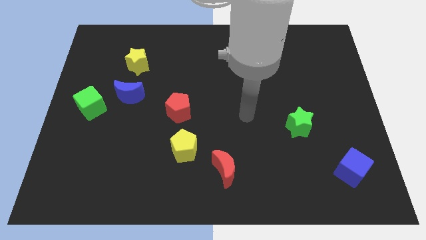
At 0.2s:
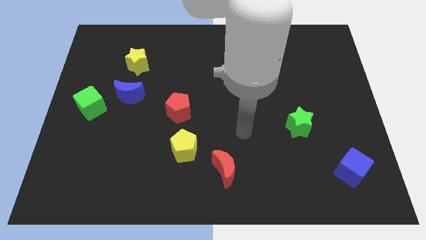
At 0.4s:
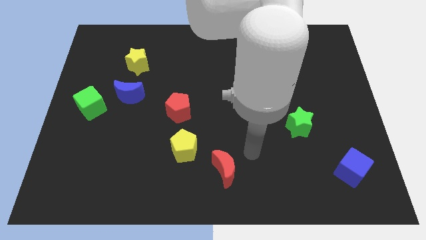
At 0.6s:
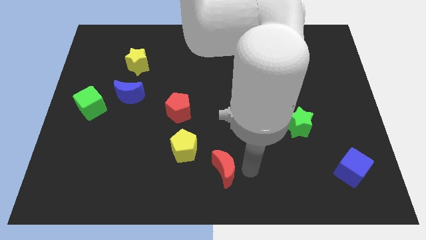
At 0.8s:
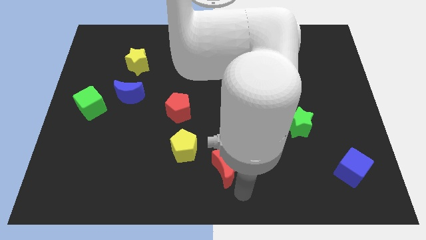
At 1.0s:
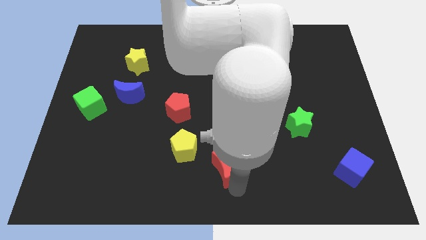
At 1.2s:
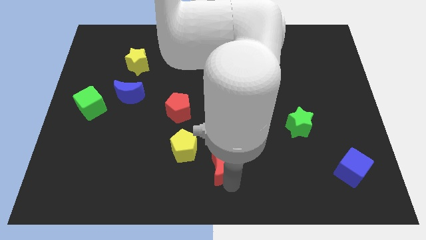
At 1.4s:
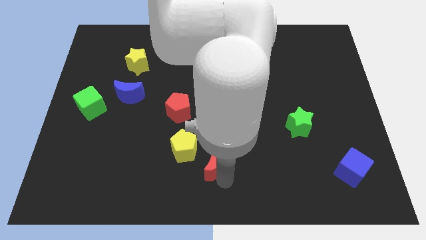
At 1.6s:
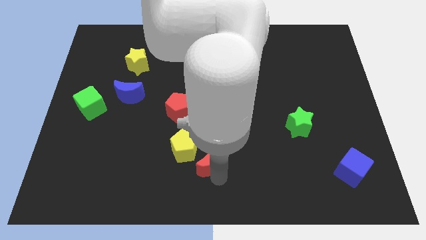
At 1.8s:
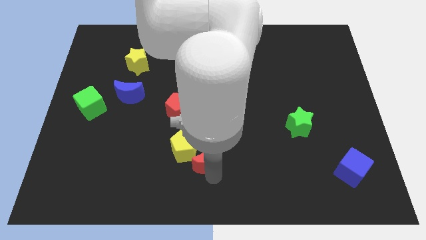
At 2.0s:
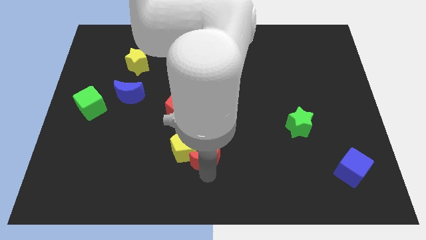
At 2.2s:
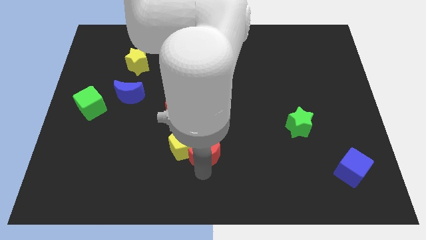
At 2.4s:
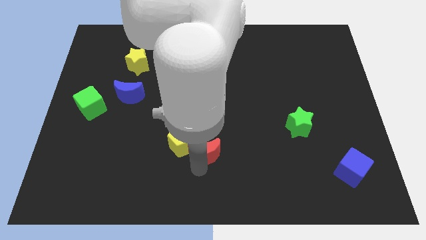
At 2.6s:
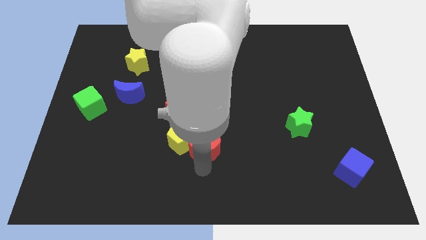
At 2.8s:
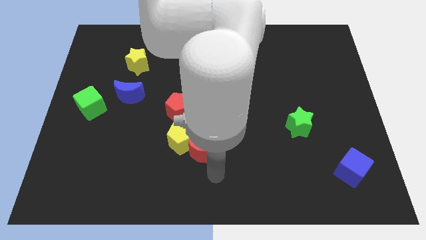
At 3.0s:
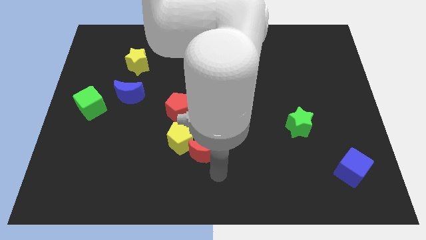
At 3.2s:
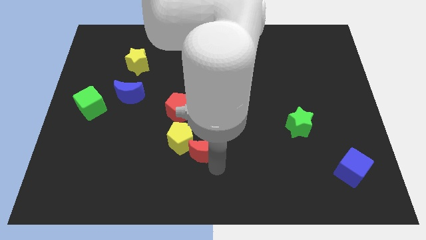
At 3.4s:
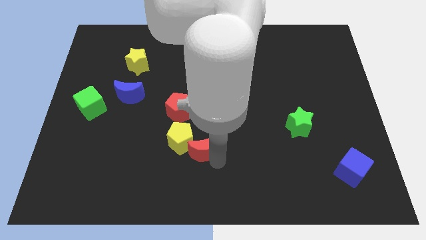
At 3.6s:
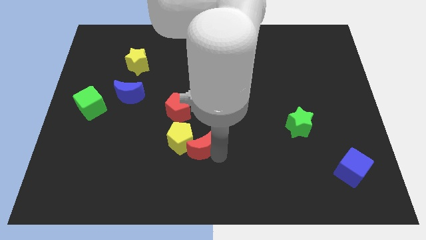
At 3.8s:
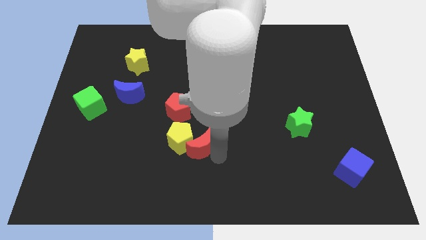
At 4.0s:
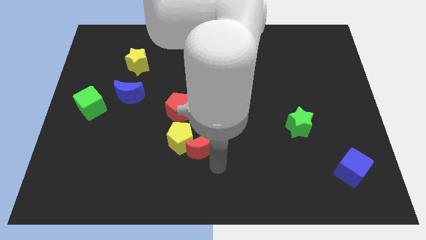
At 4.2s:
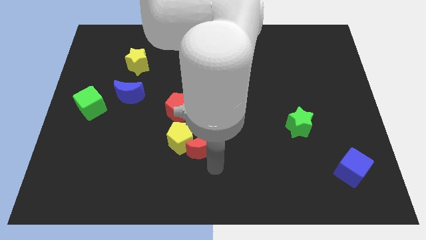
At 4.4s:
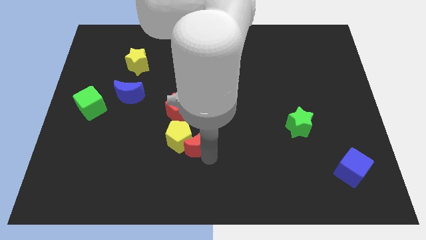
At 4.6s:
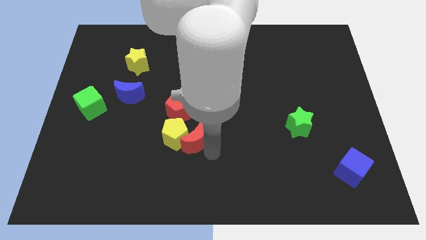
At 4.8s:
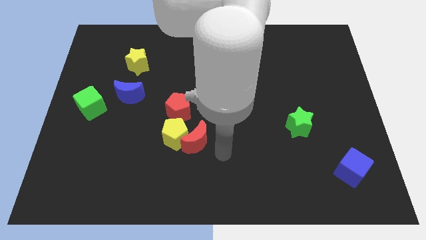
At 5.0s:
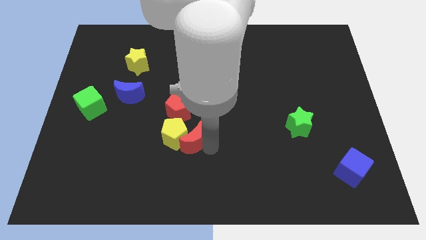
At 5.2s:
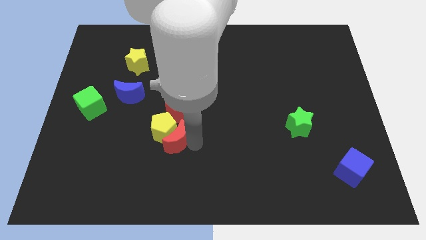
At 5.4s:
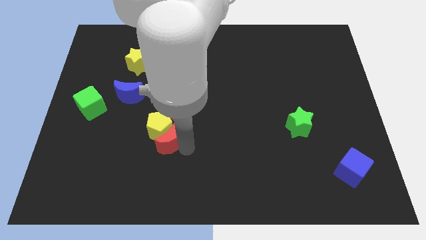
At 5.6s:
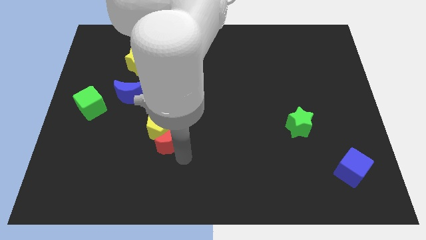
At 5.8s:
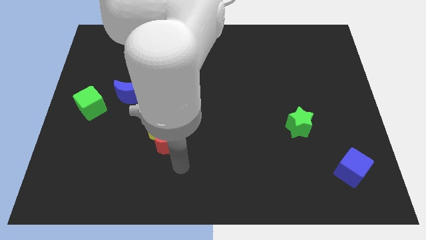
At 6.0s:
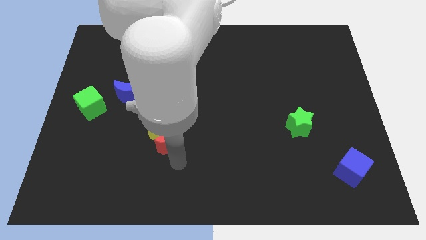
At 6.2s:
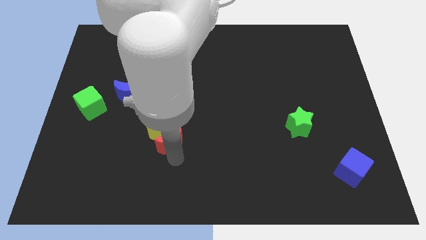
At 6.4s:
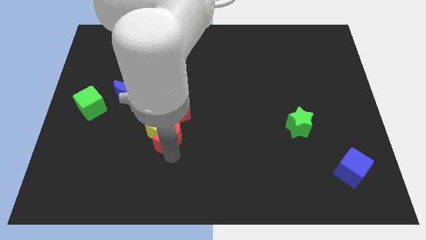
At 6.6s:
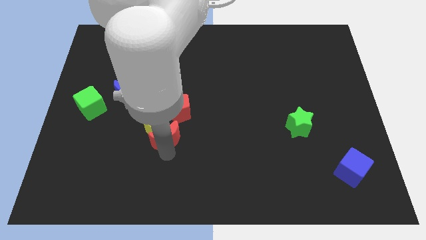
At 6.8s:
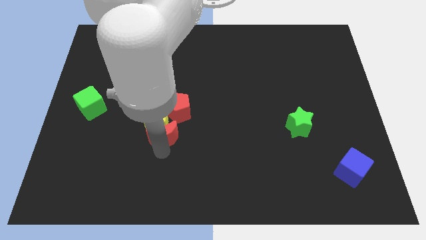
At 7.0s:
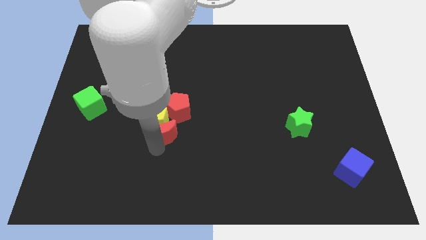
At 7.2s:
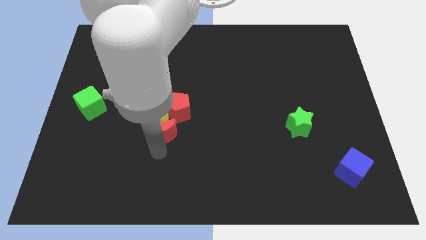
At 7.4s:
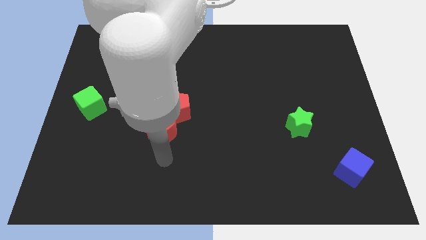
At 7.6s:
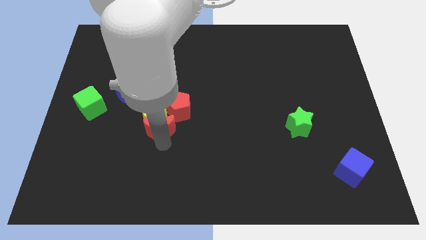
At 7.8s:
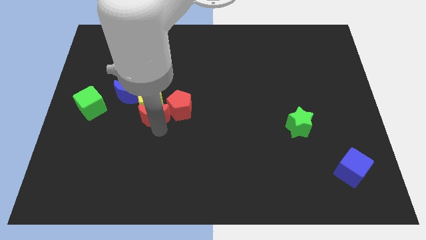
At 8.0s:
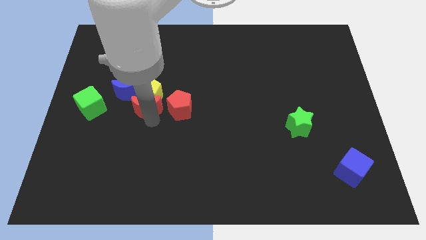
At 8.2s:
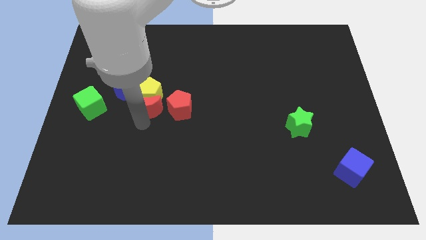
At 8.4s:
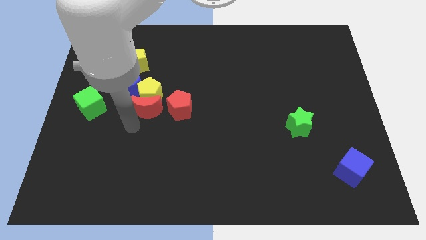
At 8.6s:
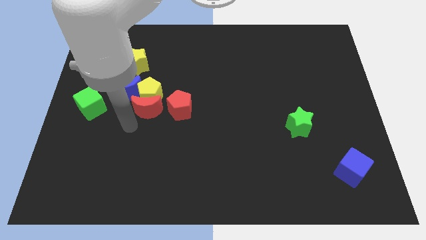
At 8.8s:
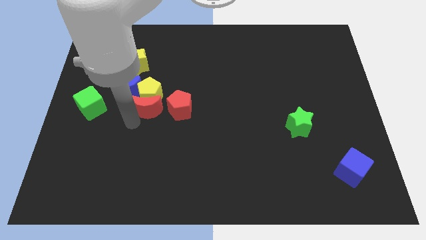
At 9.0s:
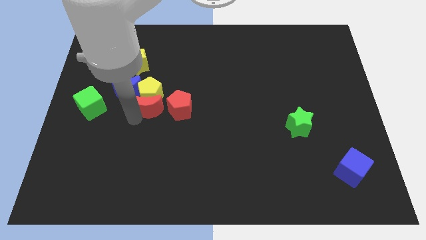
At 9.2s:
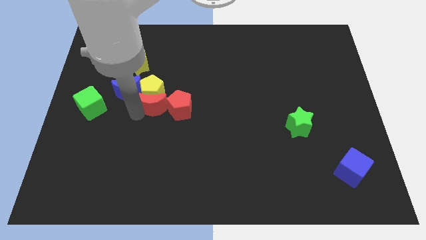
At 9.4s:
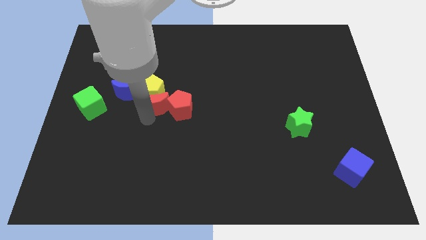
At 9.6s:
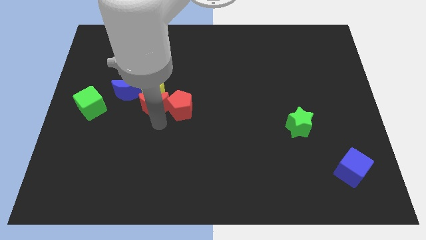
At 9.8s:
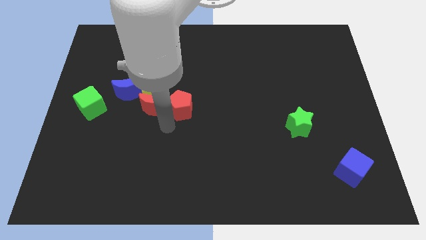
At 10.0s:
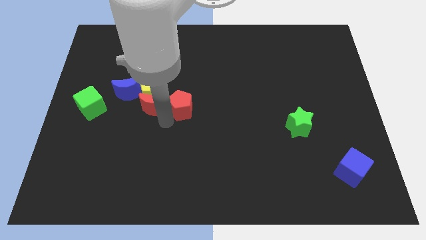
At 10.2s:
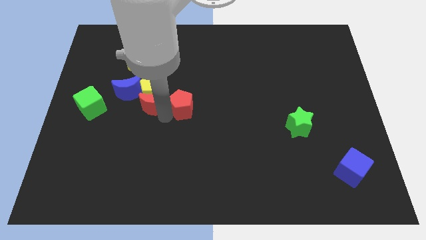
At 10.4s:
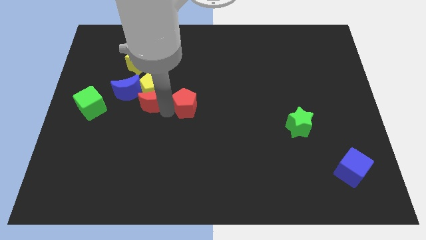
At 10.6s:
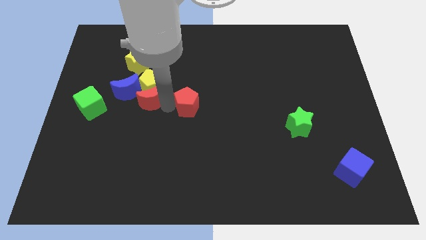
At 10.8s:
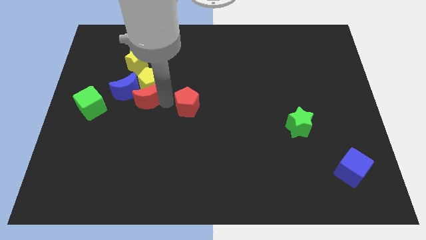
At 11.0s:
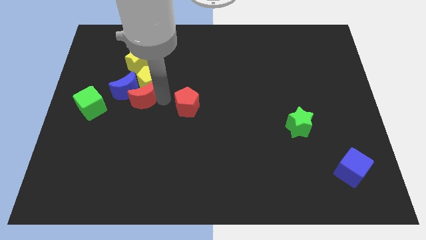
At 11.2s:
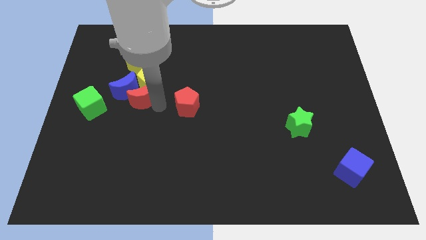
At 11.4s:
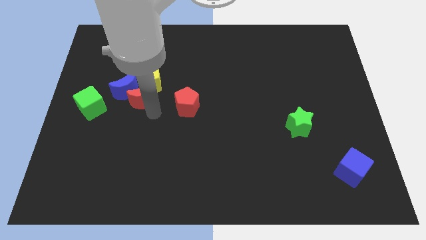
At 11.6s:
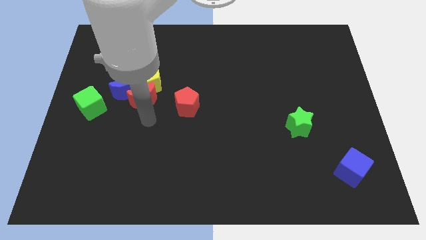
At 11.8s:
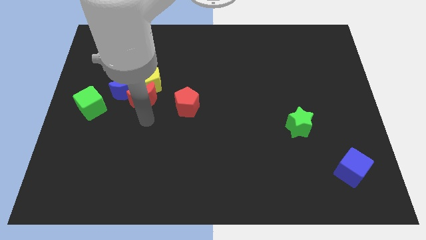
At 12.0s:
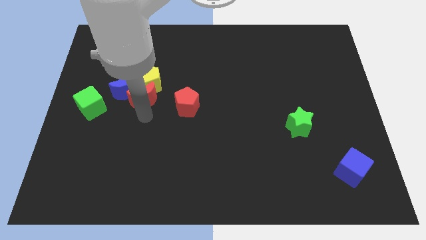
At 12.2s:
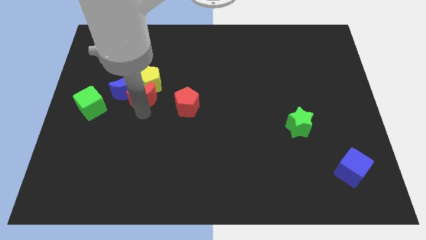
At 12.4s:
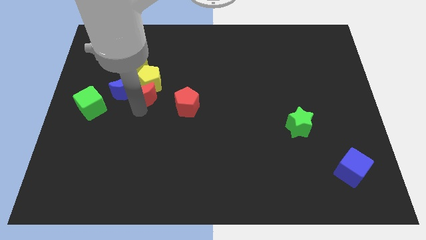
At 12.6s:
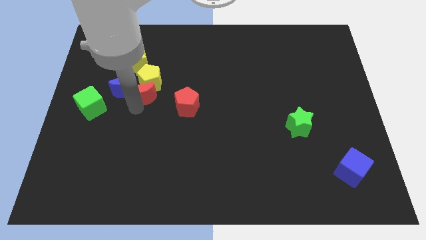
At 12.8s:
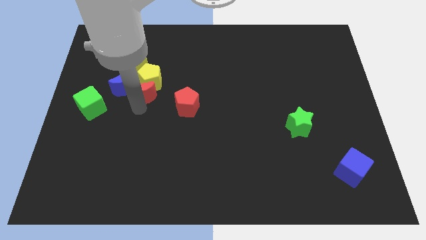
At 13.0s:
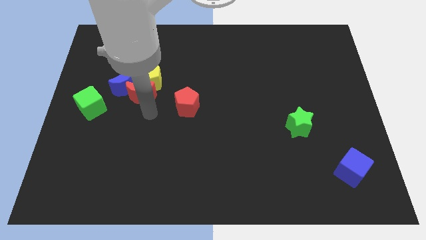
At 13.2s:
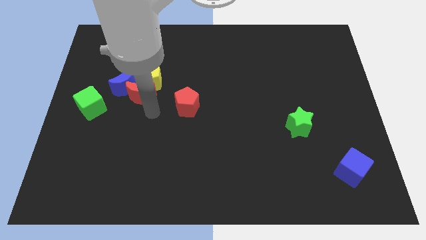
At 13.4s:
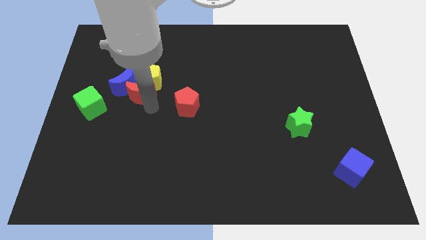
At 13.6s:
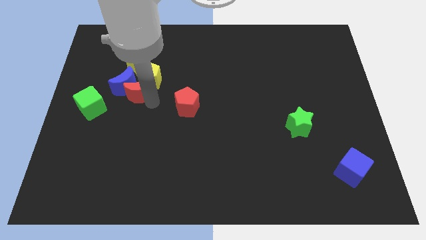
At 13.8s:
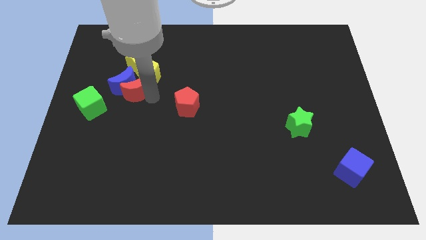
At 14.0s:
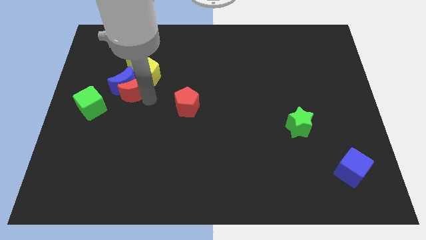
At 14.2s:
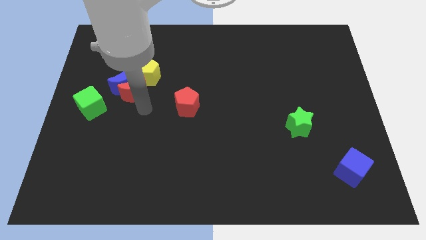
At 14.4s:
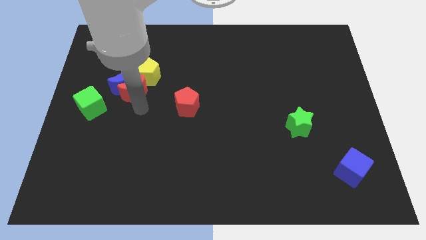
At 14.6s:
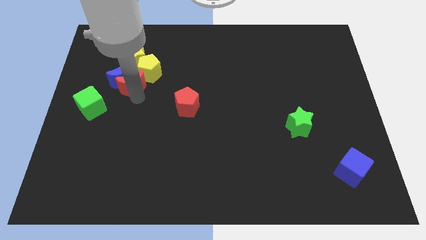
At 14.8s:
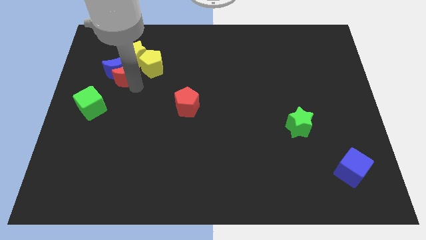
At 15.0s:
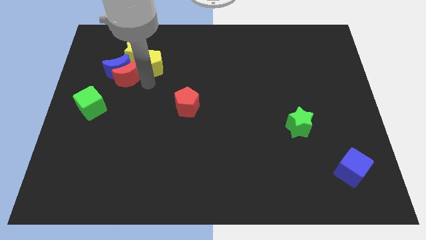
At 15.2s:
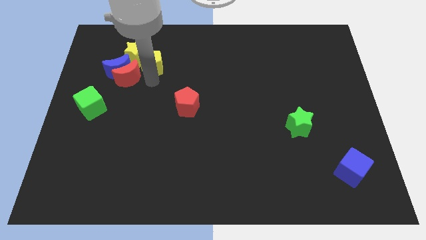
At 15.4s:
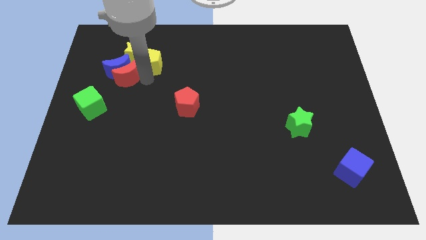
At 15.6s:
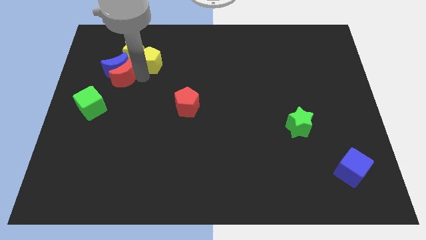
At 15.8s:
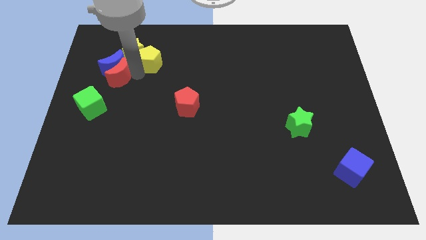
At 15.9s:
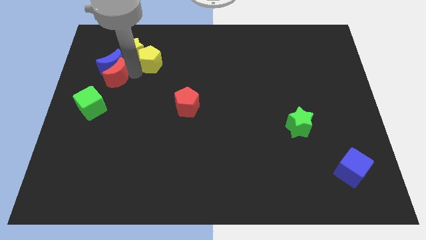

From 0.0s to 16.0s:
push the red moon to the top of the green cube
